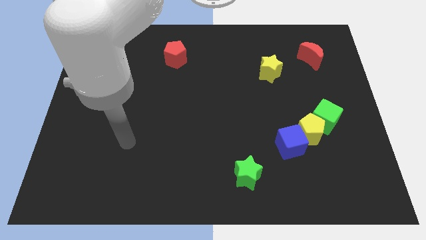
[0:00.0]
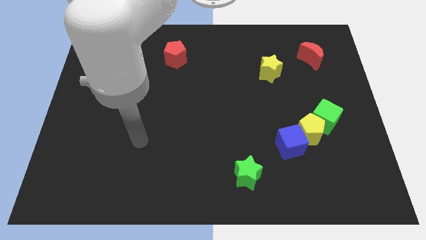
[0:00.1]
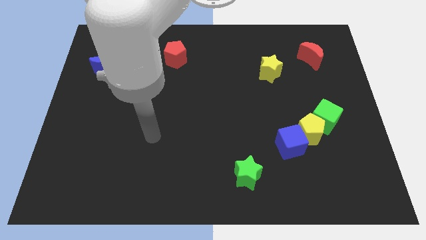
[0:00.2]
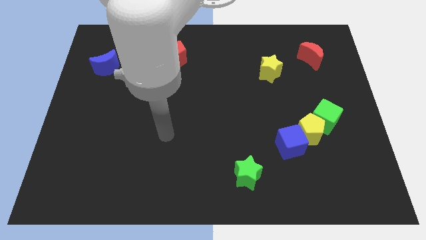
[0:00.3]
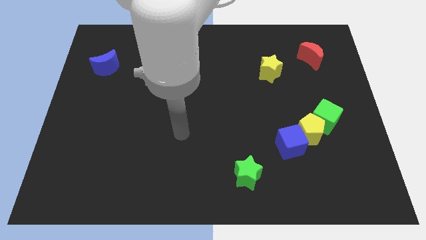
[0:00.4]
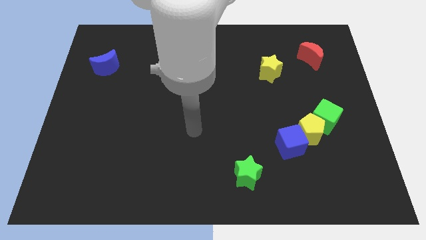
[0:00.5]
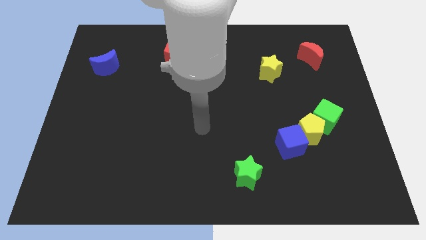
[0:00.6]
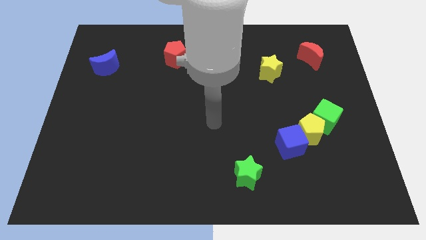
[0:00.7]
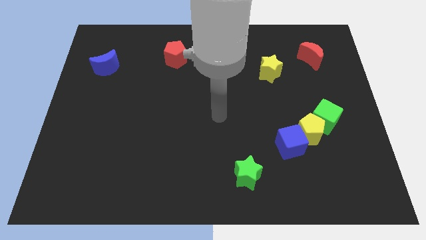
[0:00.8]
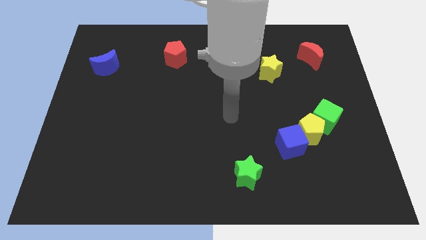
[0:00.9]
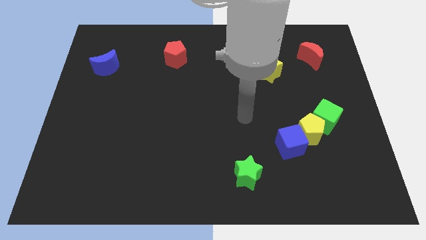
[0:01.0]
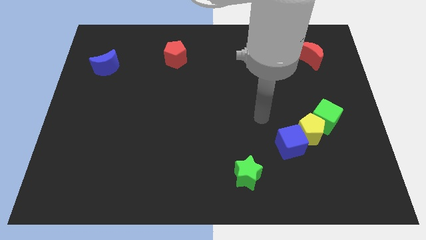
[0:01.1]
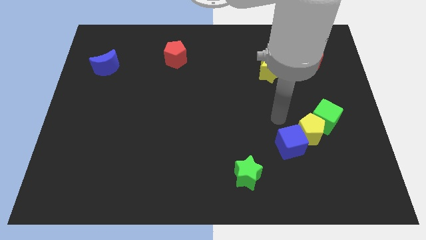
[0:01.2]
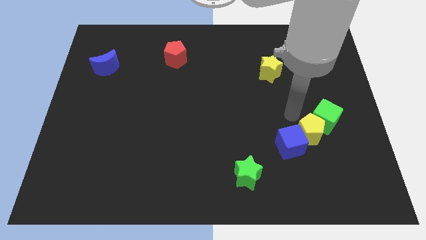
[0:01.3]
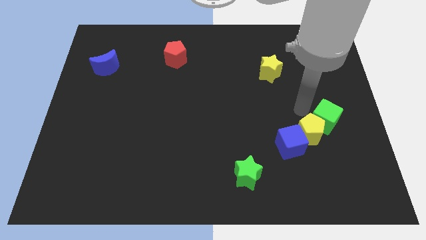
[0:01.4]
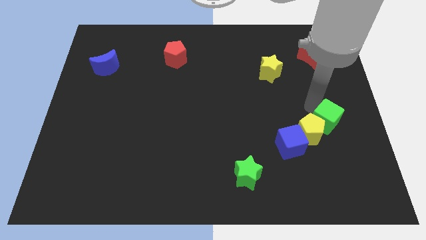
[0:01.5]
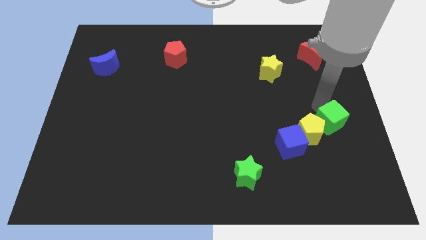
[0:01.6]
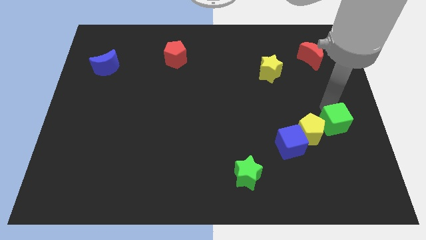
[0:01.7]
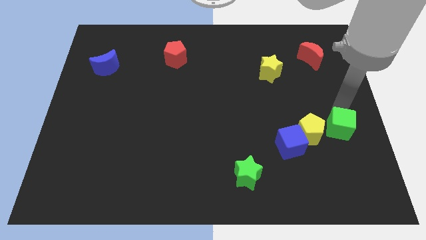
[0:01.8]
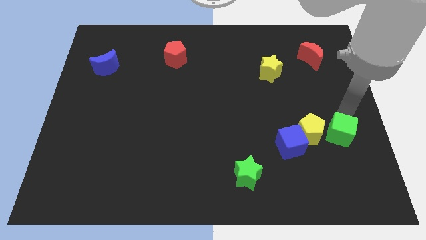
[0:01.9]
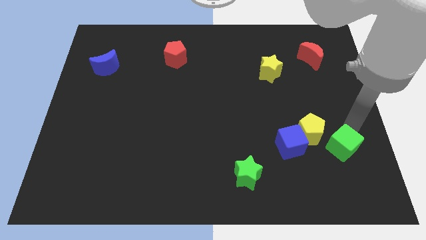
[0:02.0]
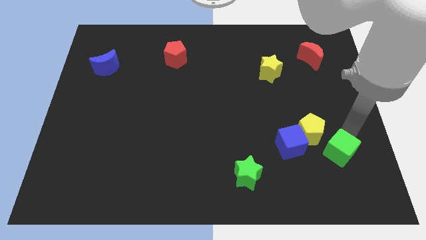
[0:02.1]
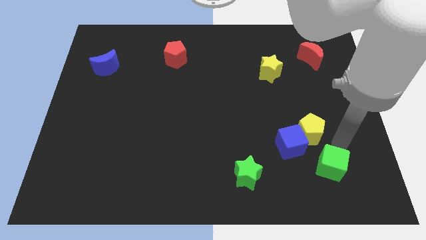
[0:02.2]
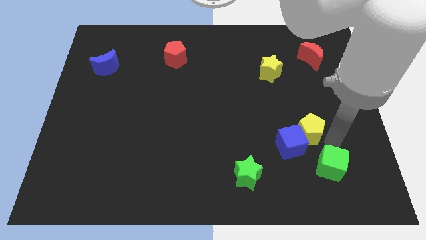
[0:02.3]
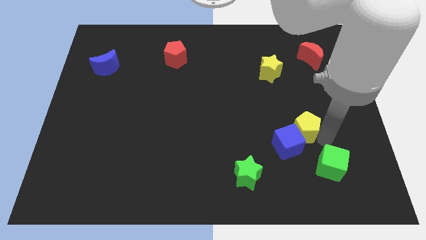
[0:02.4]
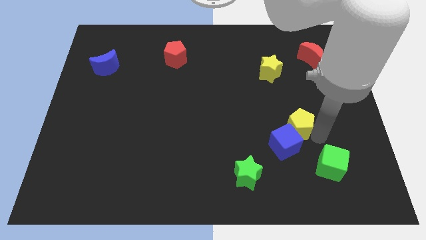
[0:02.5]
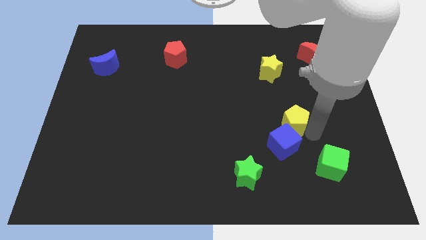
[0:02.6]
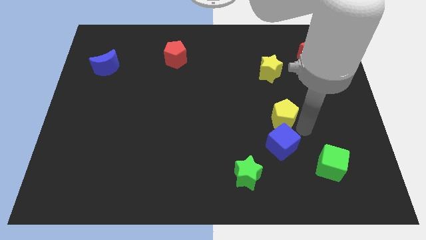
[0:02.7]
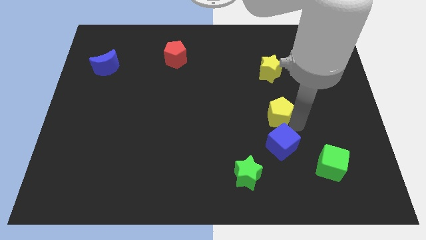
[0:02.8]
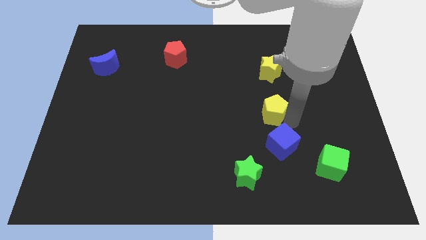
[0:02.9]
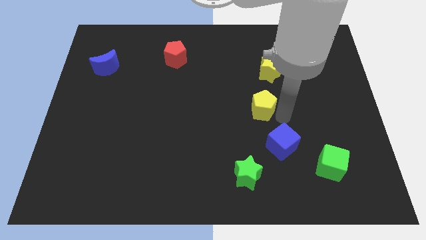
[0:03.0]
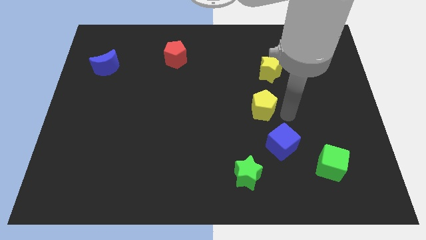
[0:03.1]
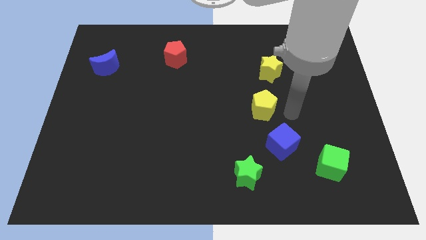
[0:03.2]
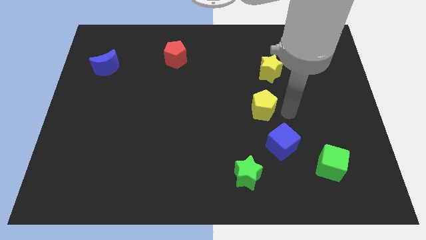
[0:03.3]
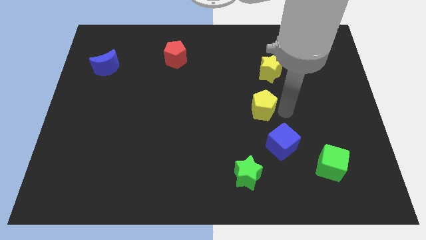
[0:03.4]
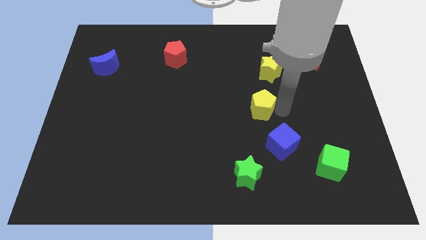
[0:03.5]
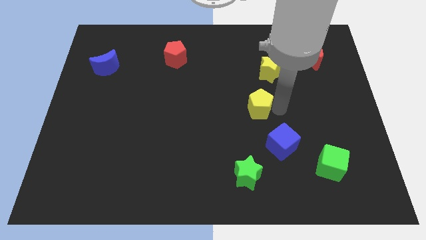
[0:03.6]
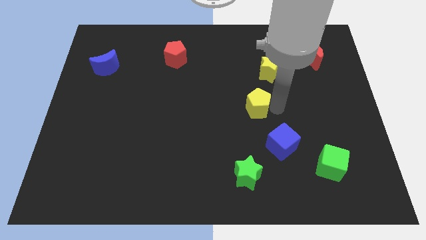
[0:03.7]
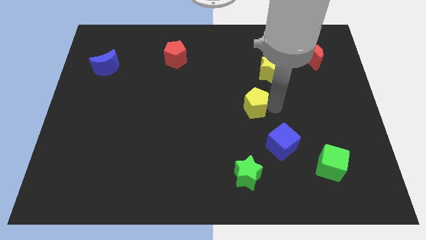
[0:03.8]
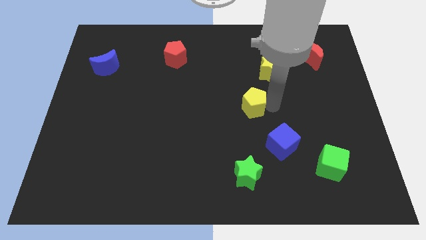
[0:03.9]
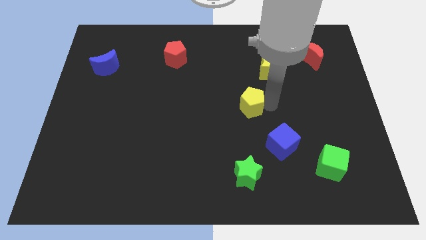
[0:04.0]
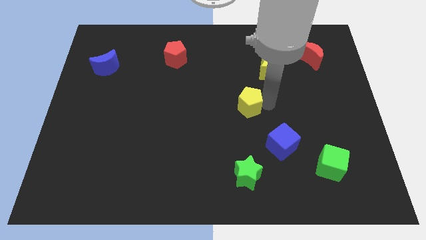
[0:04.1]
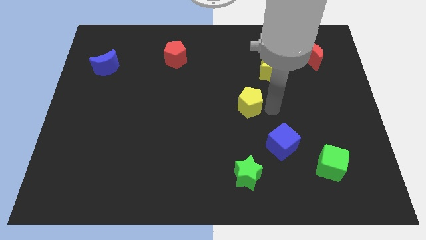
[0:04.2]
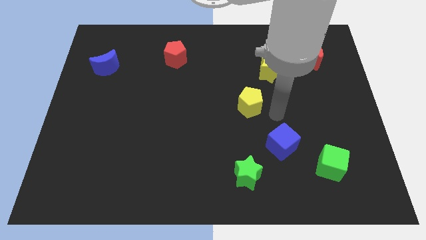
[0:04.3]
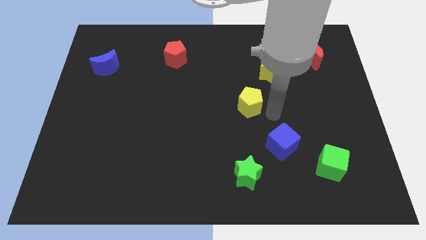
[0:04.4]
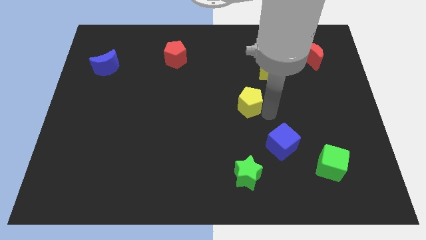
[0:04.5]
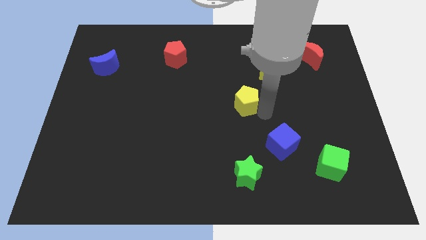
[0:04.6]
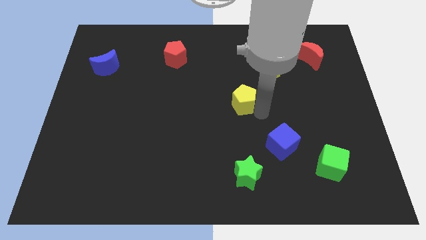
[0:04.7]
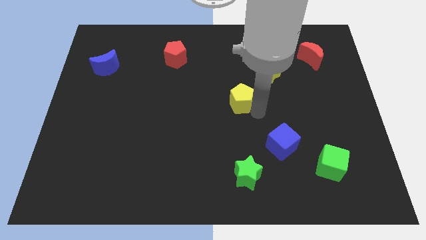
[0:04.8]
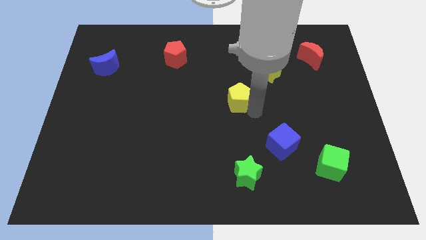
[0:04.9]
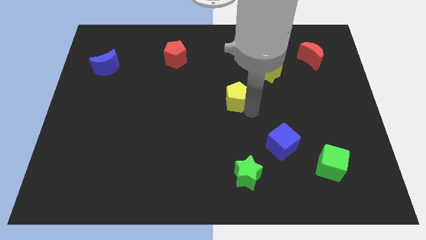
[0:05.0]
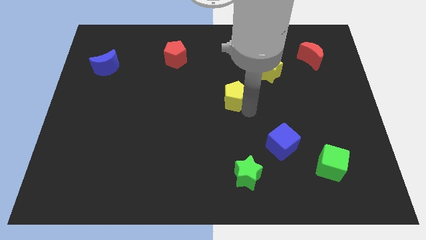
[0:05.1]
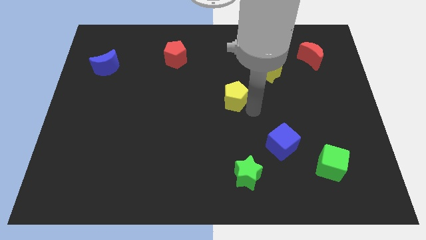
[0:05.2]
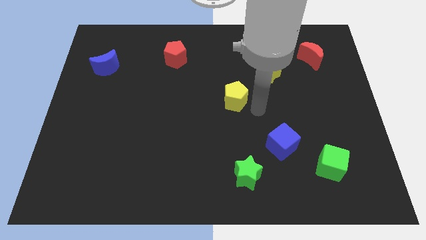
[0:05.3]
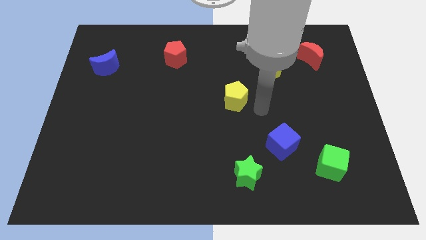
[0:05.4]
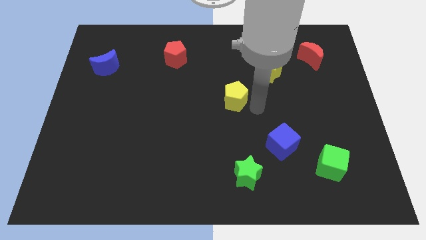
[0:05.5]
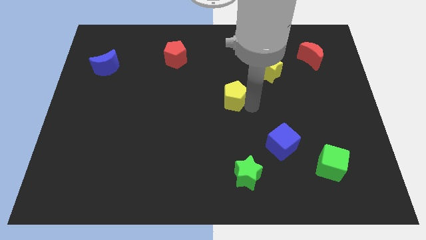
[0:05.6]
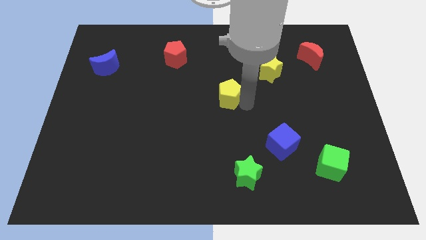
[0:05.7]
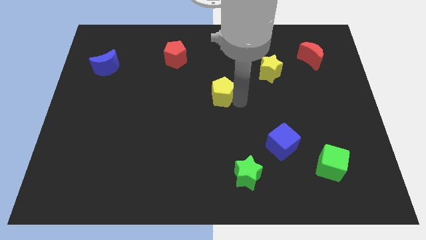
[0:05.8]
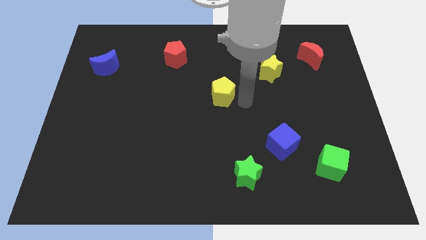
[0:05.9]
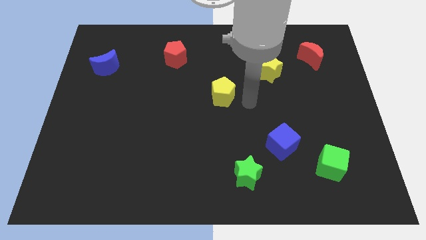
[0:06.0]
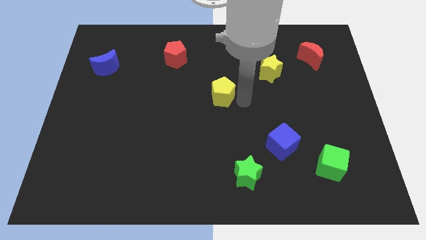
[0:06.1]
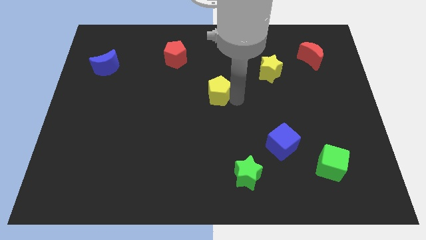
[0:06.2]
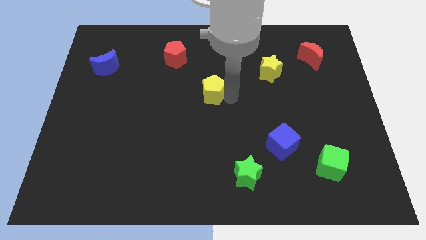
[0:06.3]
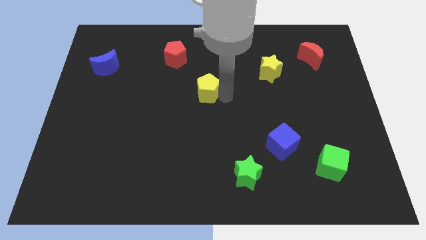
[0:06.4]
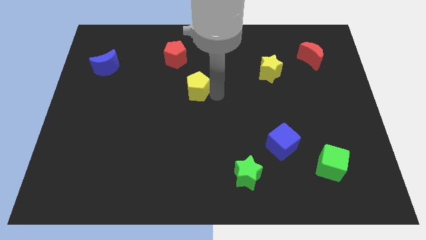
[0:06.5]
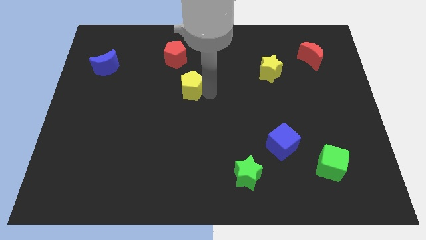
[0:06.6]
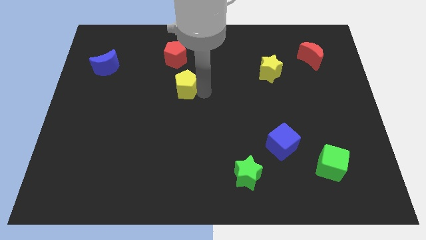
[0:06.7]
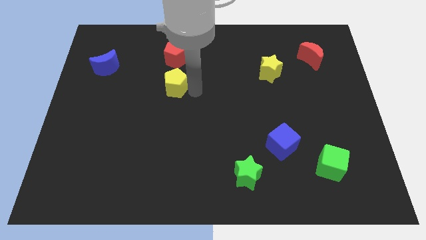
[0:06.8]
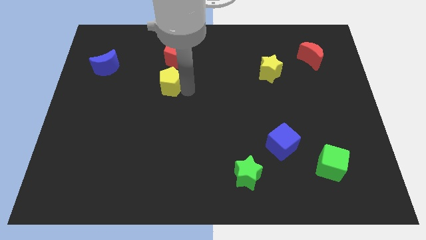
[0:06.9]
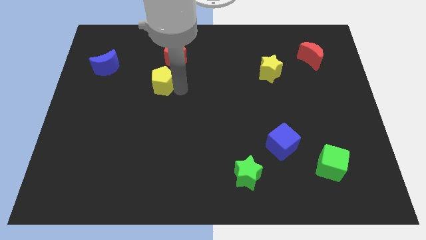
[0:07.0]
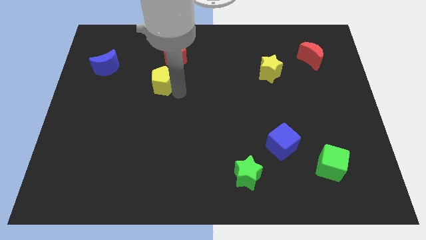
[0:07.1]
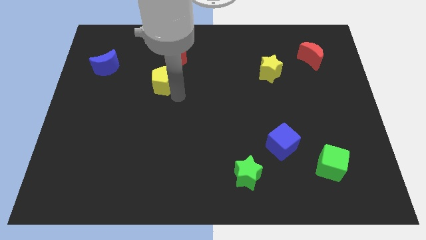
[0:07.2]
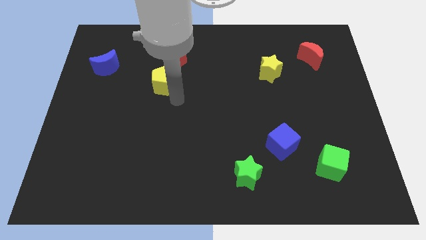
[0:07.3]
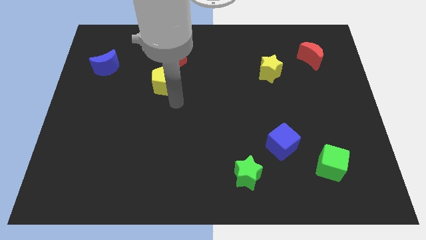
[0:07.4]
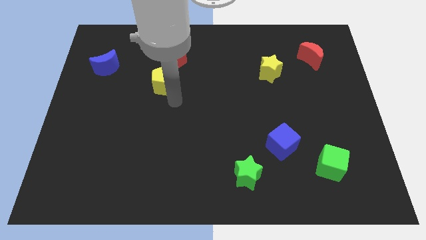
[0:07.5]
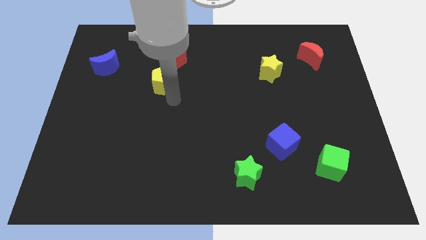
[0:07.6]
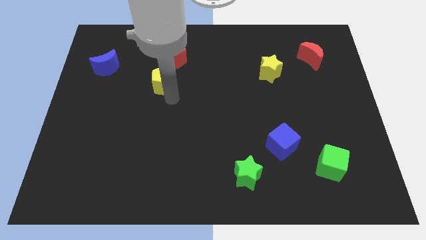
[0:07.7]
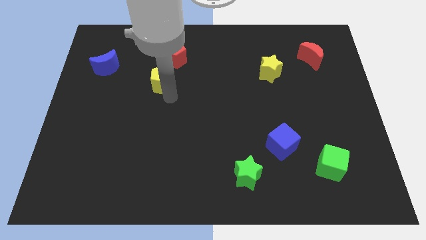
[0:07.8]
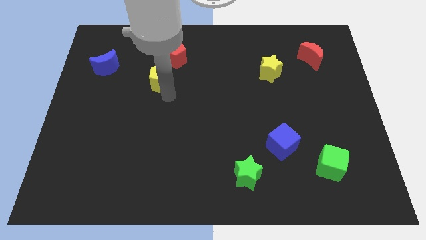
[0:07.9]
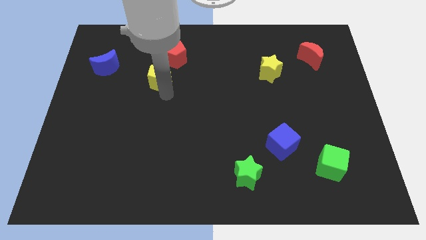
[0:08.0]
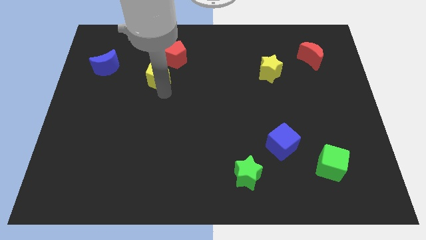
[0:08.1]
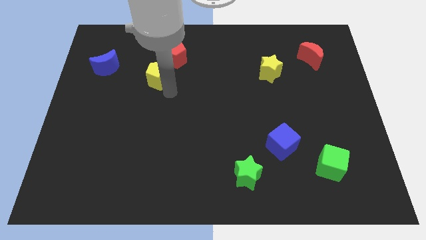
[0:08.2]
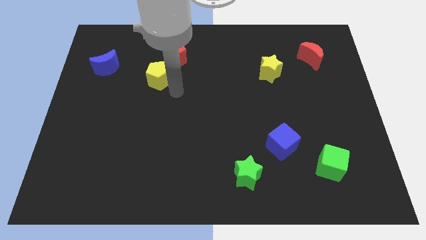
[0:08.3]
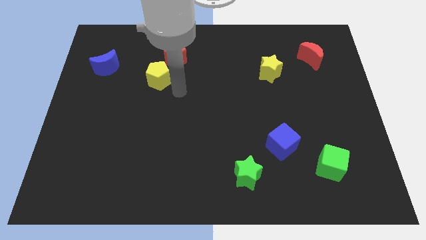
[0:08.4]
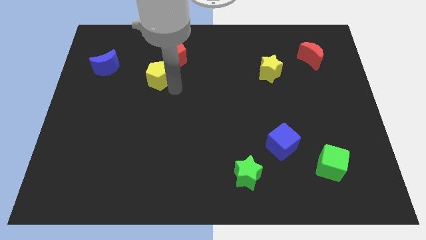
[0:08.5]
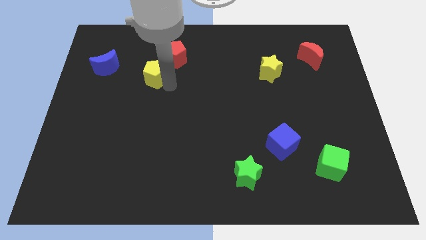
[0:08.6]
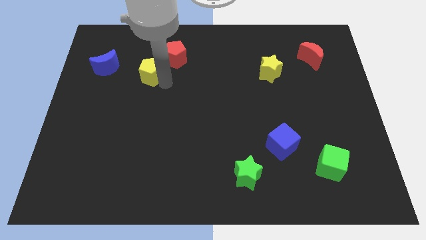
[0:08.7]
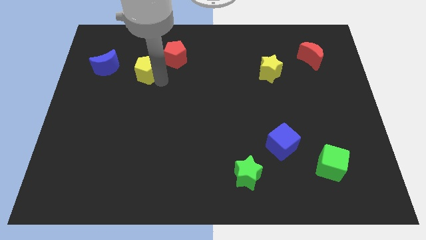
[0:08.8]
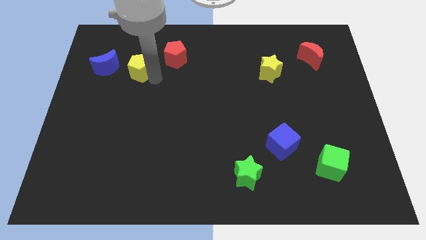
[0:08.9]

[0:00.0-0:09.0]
move the yellow pentagon left of the red pentagon
